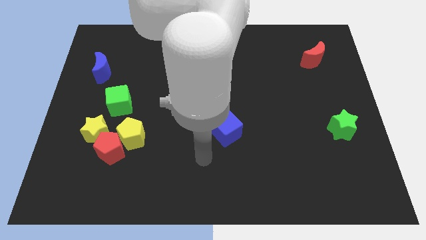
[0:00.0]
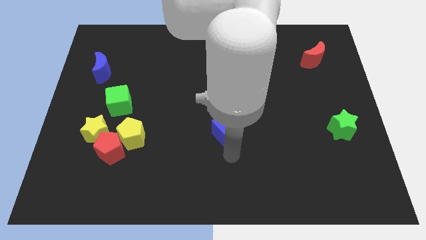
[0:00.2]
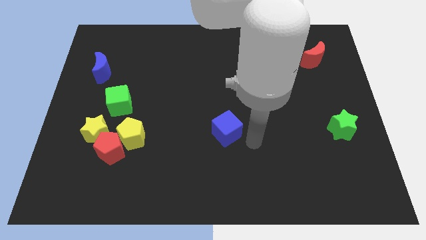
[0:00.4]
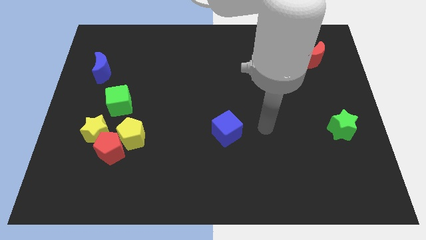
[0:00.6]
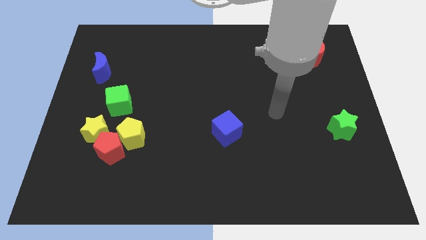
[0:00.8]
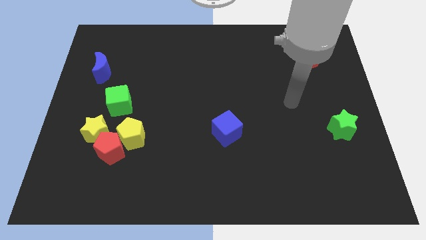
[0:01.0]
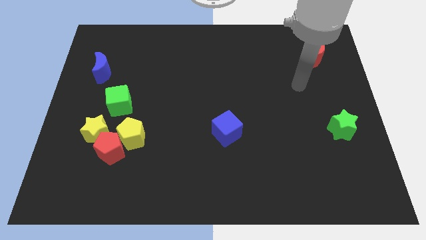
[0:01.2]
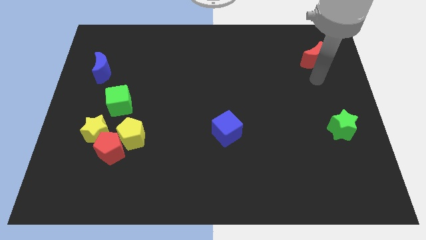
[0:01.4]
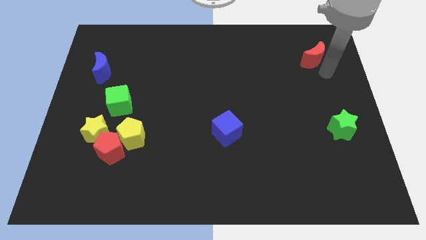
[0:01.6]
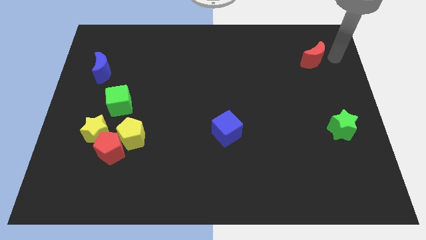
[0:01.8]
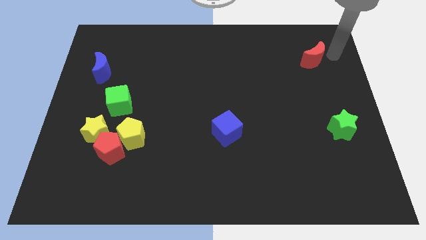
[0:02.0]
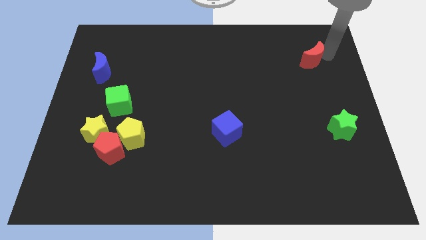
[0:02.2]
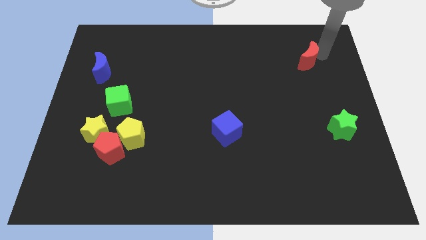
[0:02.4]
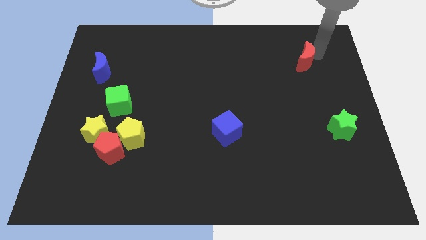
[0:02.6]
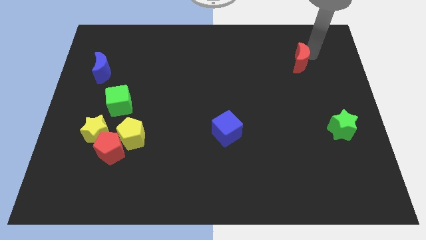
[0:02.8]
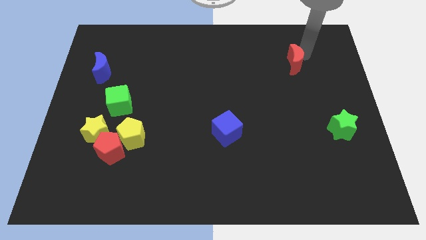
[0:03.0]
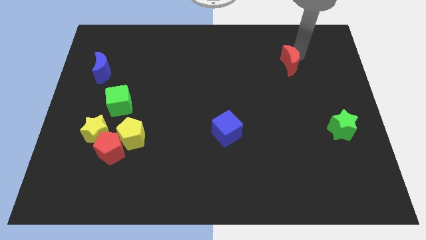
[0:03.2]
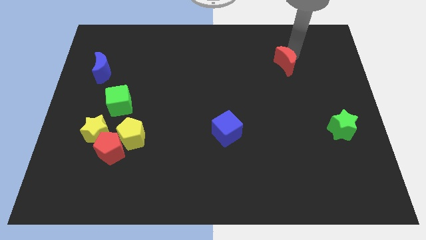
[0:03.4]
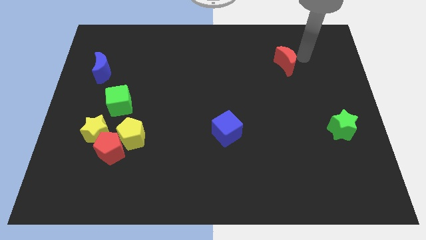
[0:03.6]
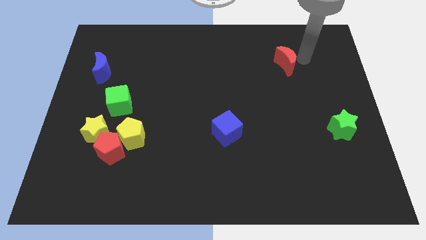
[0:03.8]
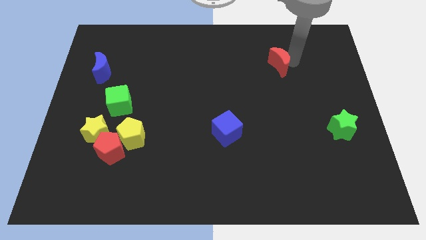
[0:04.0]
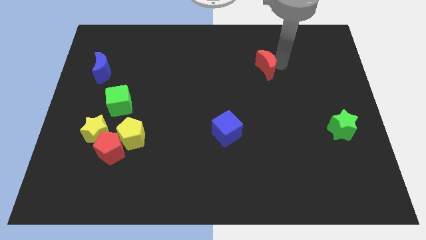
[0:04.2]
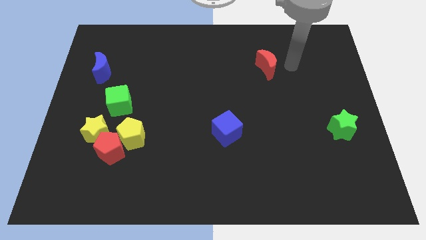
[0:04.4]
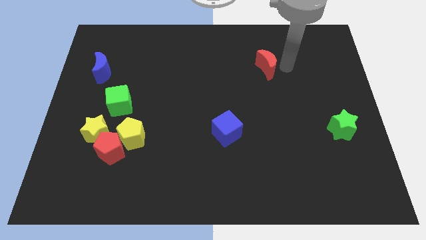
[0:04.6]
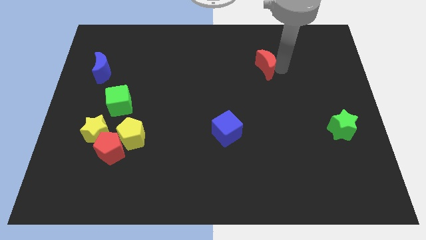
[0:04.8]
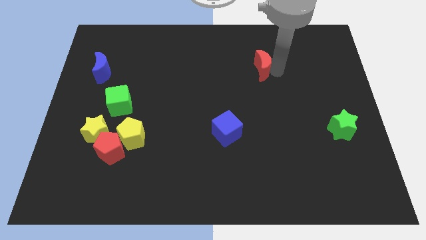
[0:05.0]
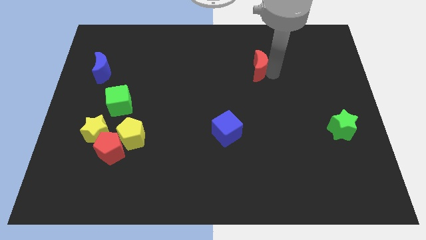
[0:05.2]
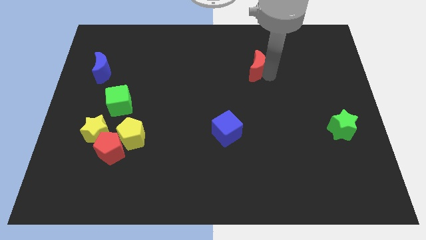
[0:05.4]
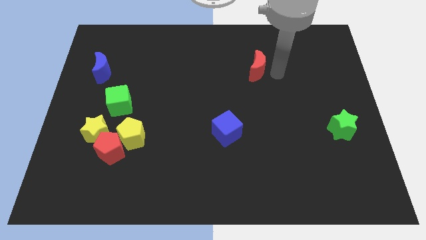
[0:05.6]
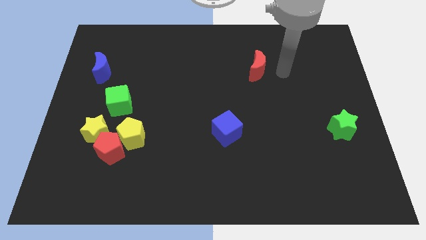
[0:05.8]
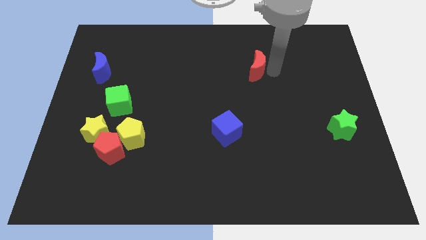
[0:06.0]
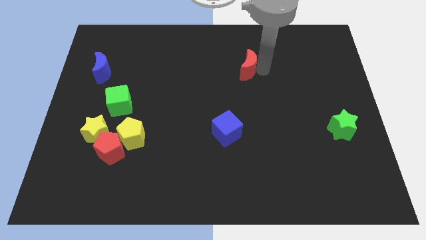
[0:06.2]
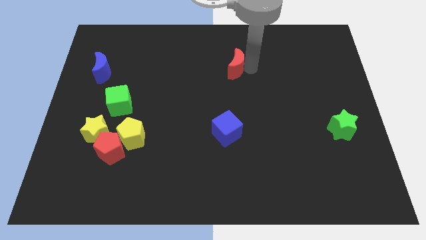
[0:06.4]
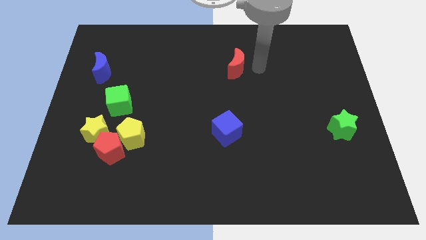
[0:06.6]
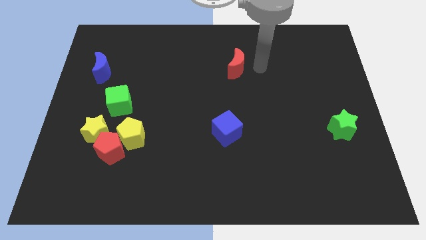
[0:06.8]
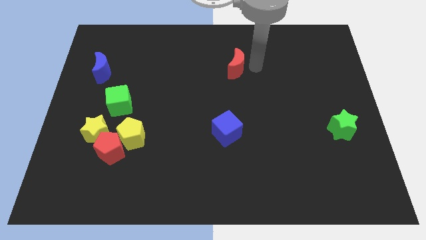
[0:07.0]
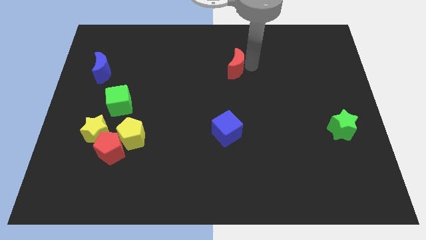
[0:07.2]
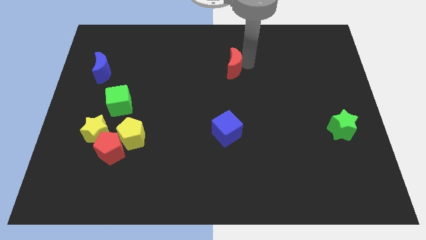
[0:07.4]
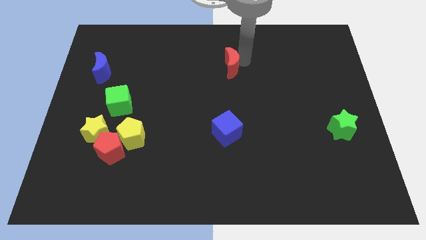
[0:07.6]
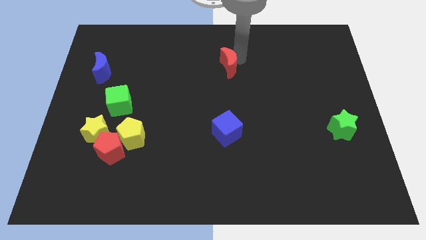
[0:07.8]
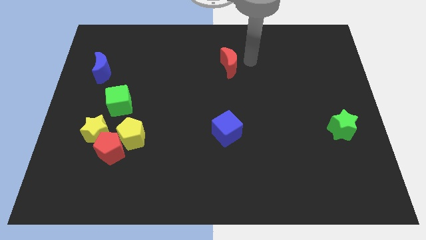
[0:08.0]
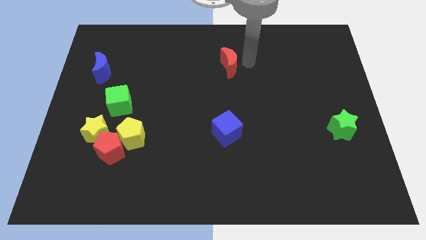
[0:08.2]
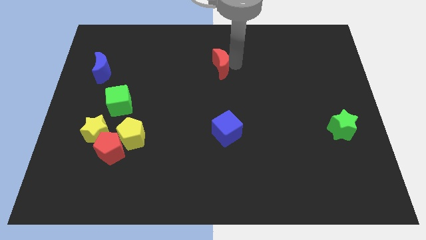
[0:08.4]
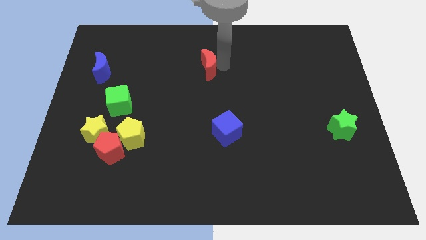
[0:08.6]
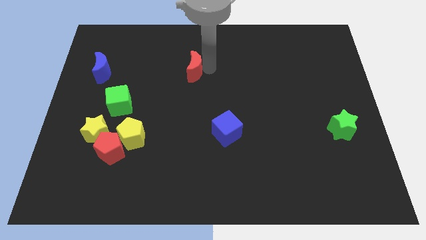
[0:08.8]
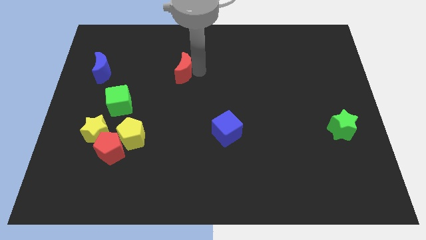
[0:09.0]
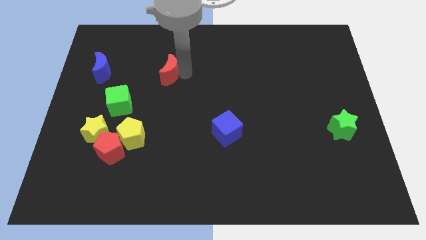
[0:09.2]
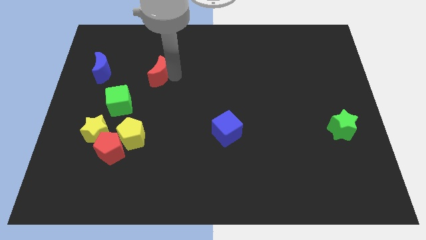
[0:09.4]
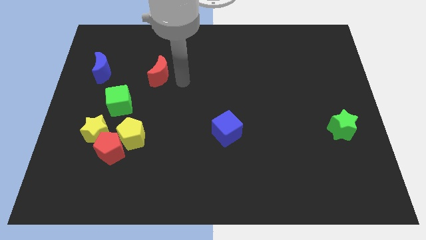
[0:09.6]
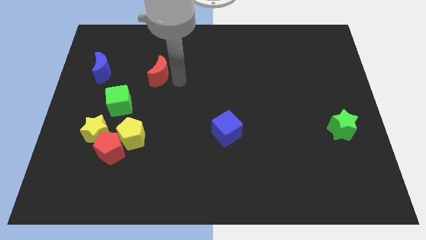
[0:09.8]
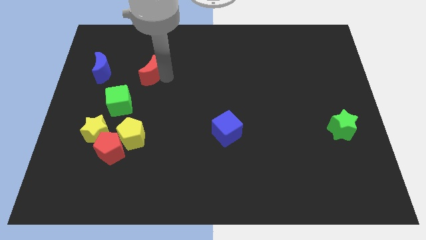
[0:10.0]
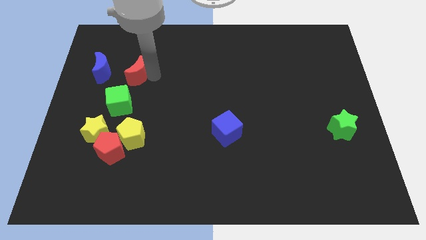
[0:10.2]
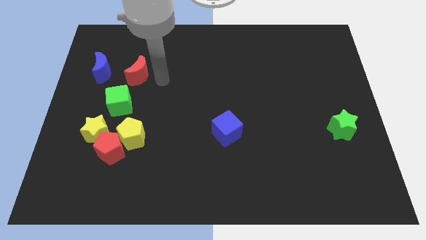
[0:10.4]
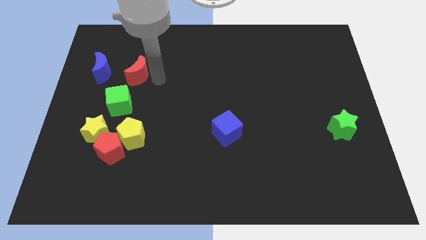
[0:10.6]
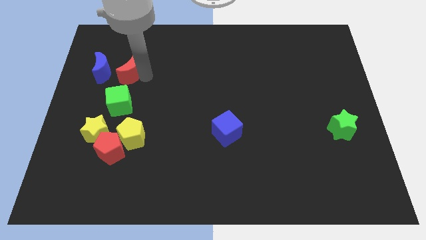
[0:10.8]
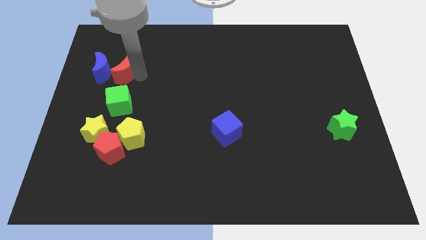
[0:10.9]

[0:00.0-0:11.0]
put the red moon next to the blue moon

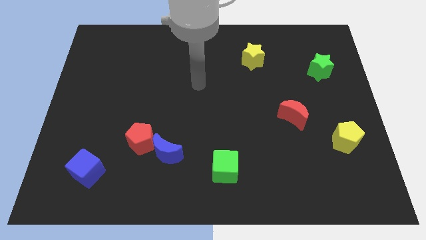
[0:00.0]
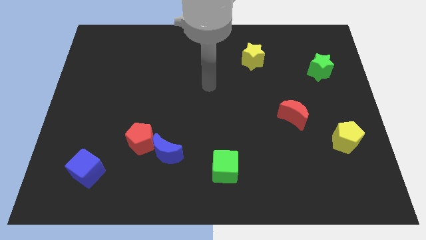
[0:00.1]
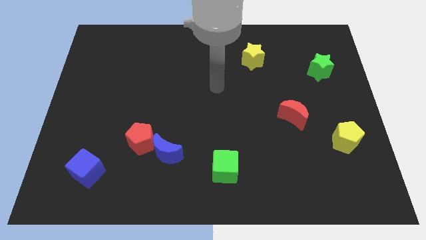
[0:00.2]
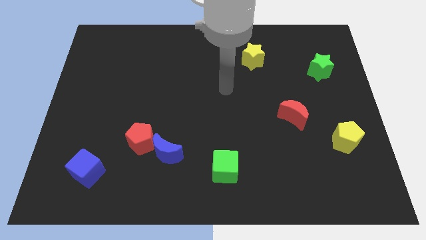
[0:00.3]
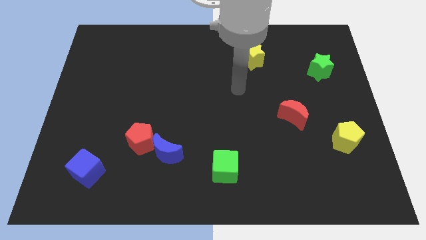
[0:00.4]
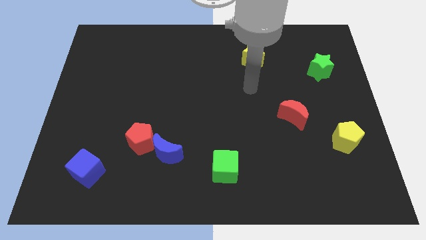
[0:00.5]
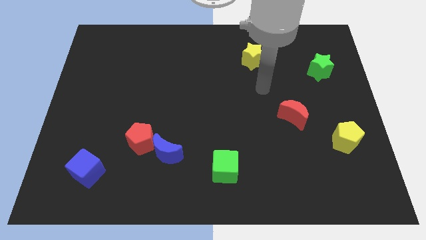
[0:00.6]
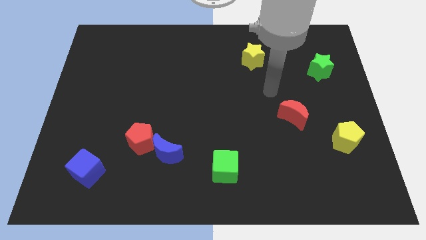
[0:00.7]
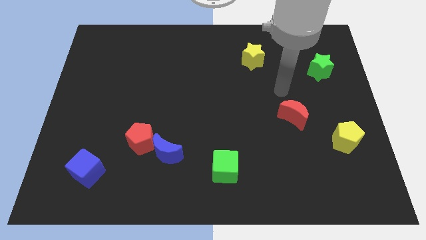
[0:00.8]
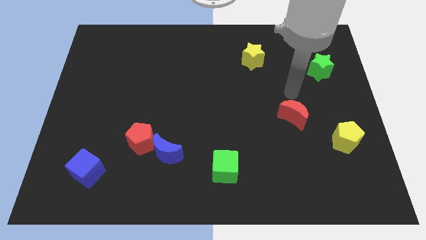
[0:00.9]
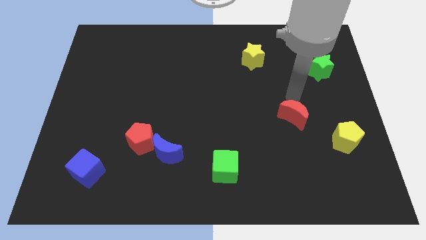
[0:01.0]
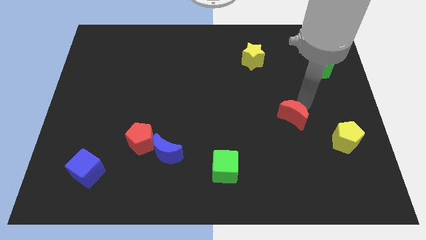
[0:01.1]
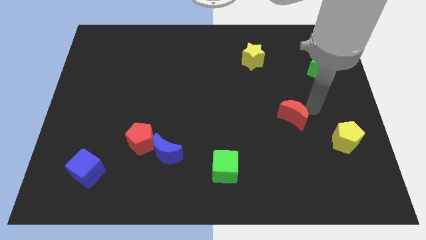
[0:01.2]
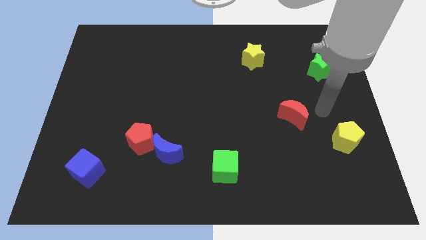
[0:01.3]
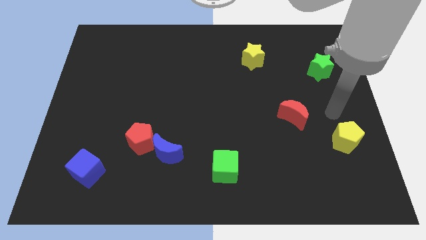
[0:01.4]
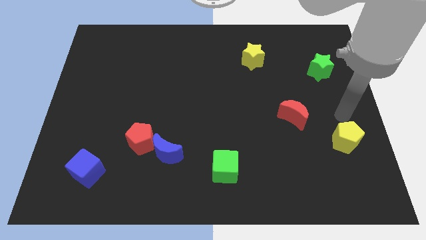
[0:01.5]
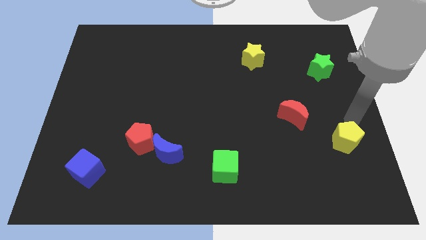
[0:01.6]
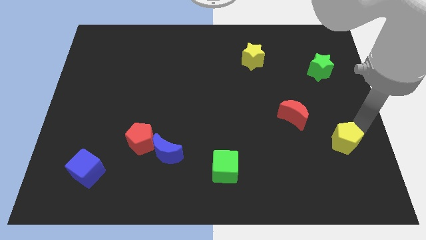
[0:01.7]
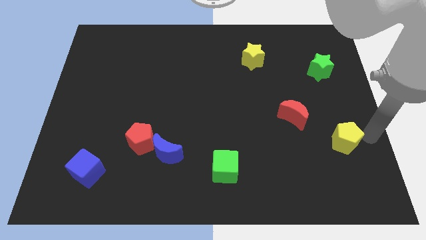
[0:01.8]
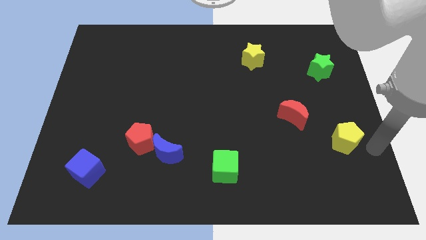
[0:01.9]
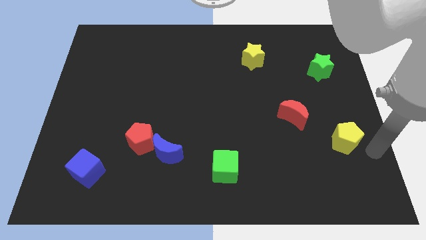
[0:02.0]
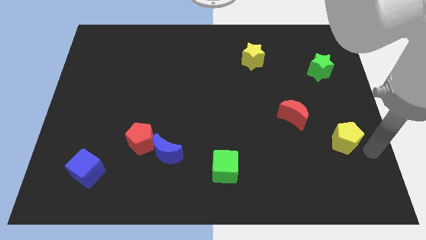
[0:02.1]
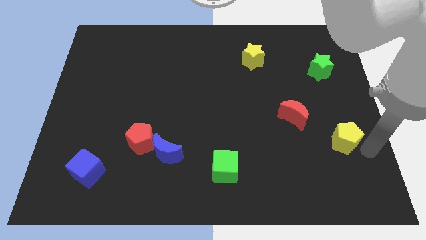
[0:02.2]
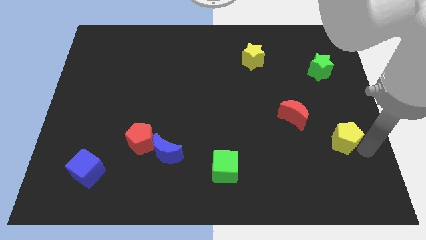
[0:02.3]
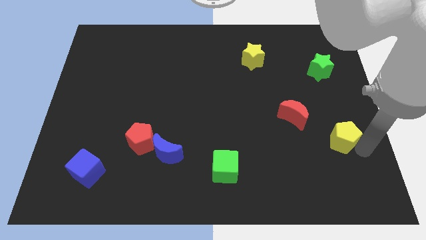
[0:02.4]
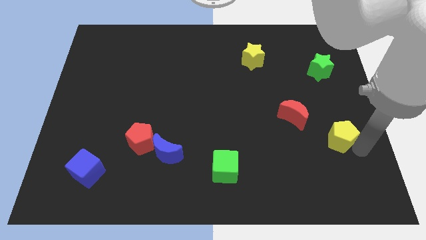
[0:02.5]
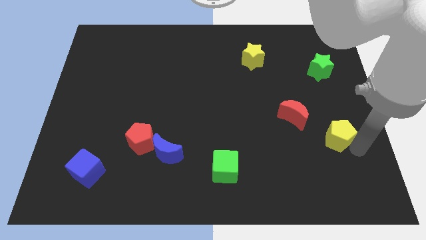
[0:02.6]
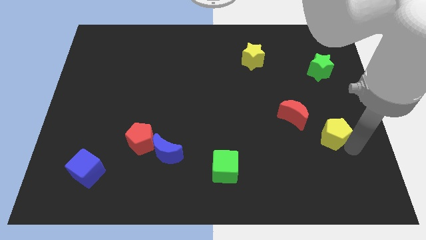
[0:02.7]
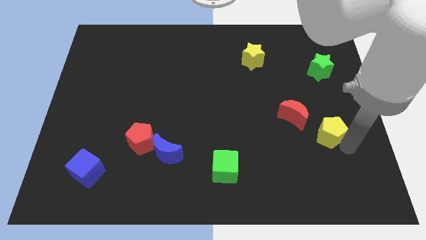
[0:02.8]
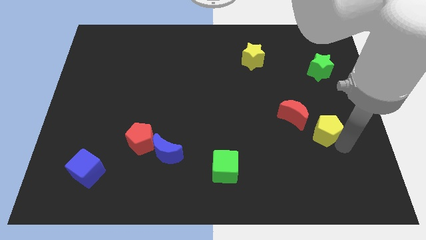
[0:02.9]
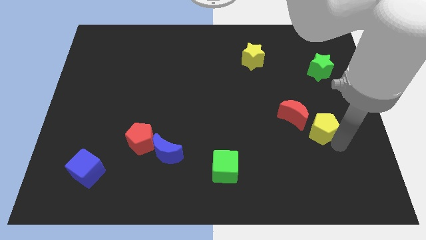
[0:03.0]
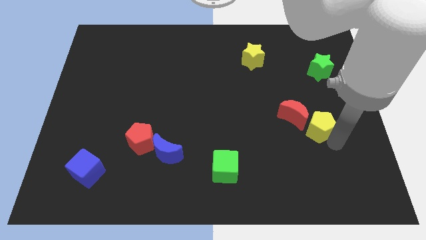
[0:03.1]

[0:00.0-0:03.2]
put the yellow pentagon towards the red moon
